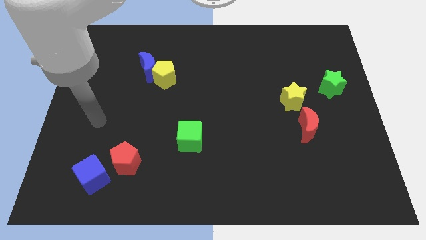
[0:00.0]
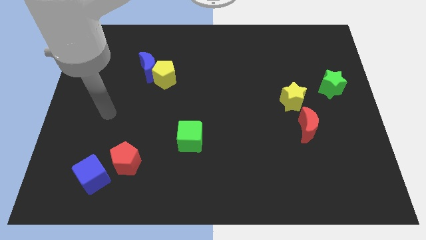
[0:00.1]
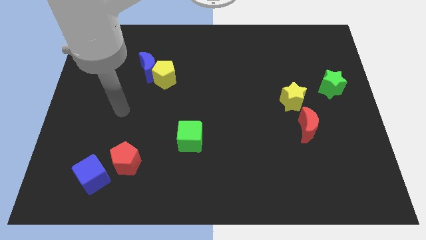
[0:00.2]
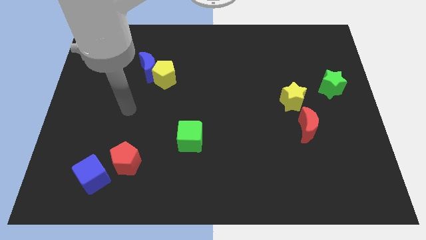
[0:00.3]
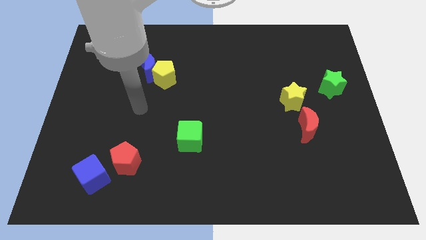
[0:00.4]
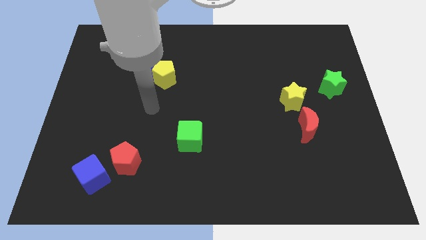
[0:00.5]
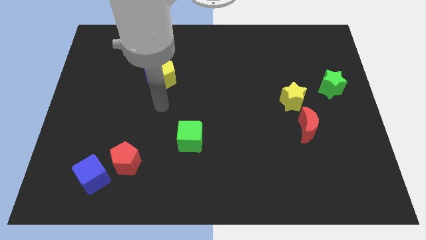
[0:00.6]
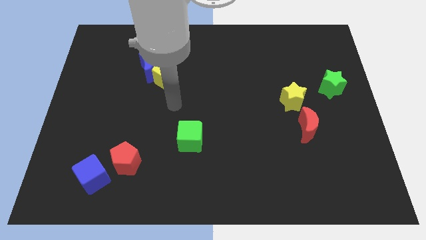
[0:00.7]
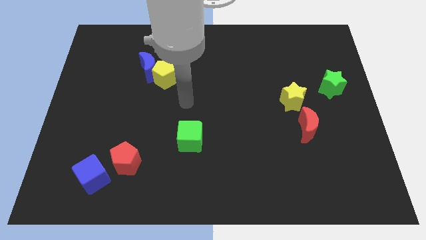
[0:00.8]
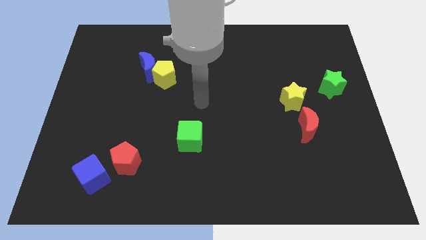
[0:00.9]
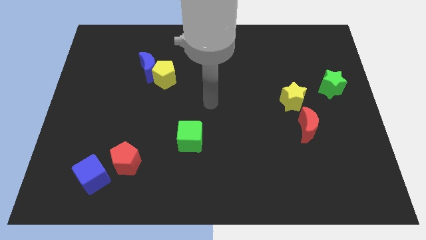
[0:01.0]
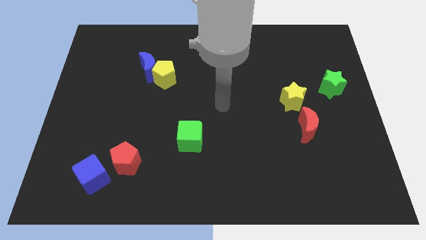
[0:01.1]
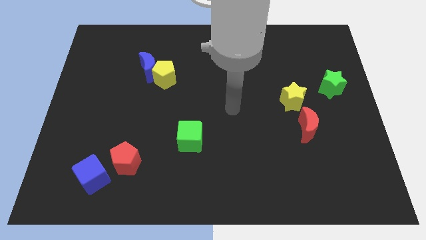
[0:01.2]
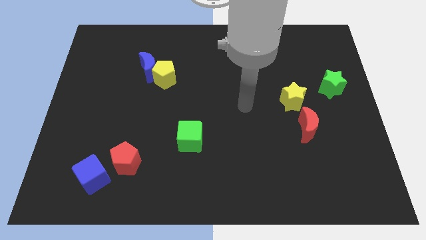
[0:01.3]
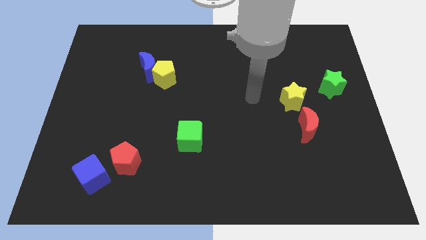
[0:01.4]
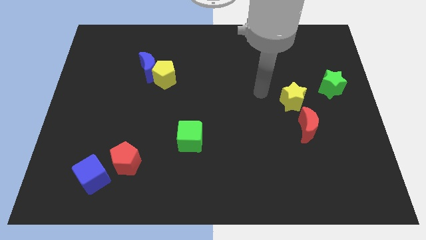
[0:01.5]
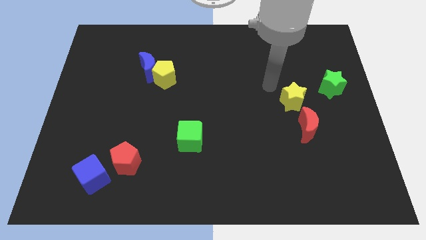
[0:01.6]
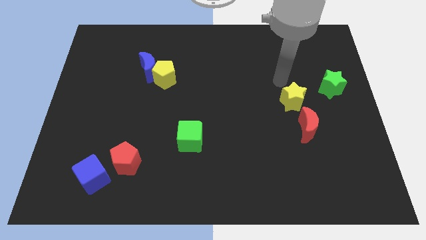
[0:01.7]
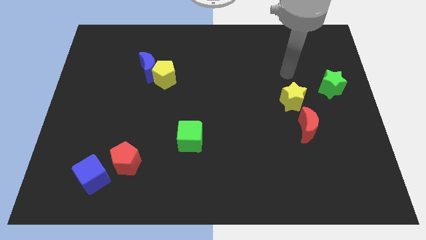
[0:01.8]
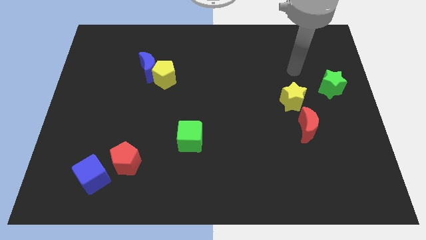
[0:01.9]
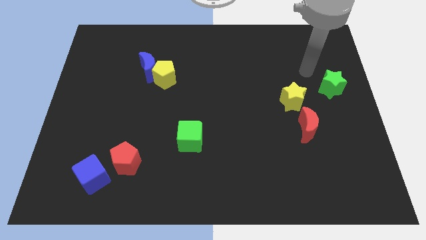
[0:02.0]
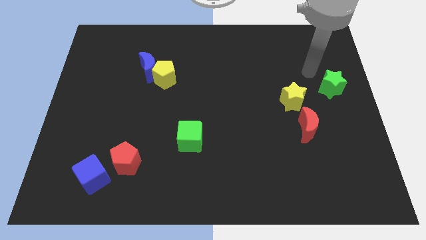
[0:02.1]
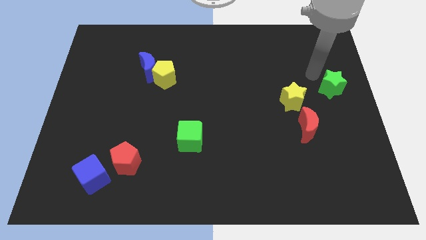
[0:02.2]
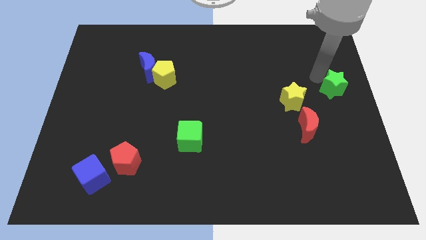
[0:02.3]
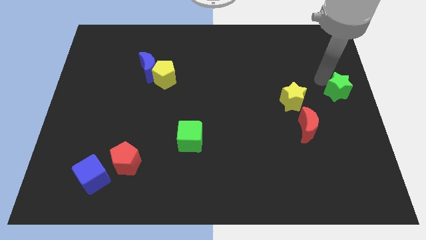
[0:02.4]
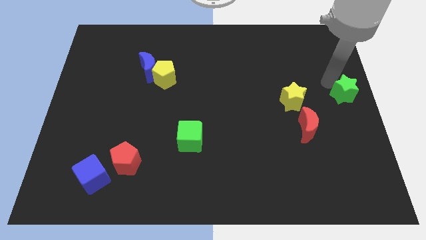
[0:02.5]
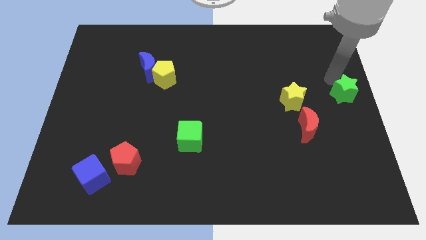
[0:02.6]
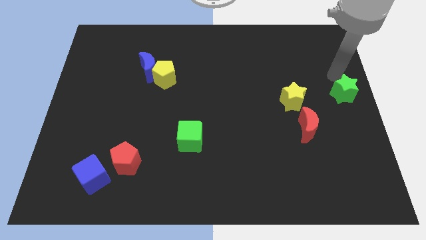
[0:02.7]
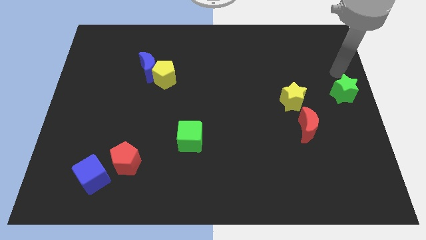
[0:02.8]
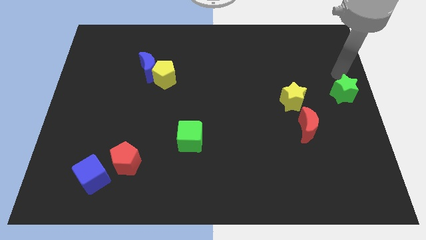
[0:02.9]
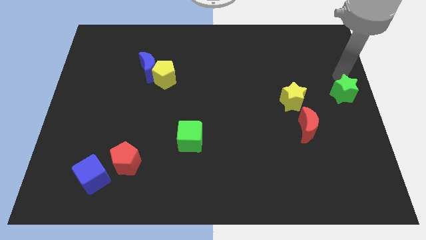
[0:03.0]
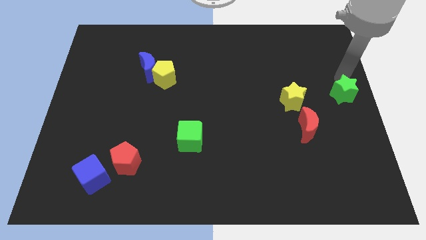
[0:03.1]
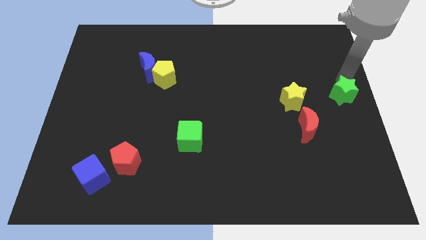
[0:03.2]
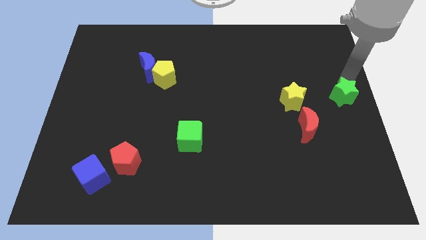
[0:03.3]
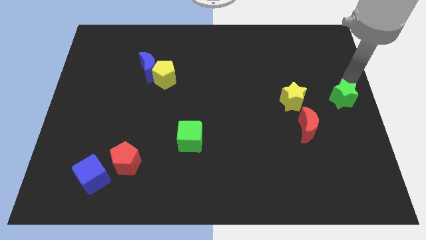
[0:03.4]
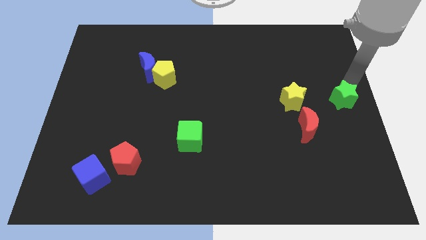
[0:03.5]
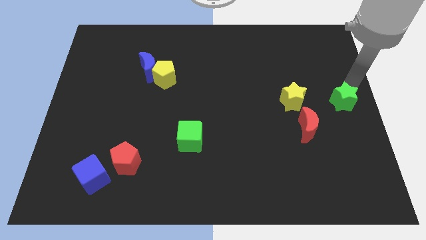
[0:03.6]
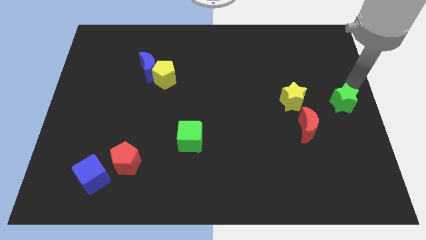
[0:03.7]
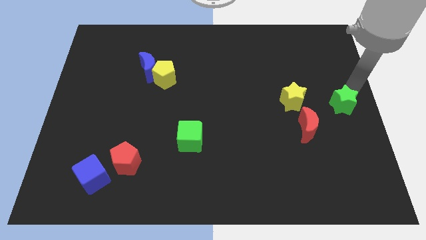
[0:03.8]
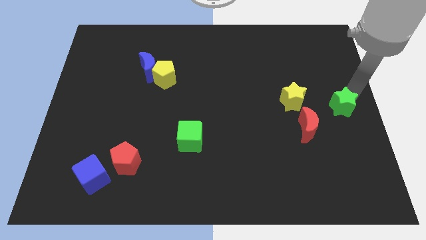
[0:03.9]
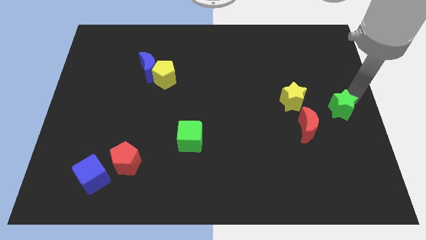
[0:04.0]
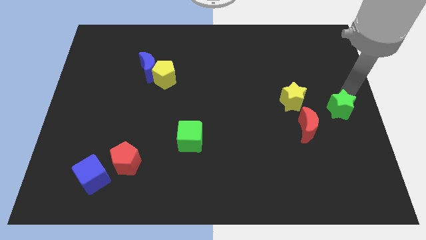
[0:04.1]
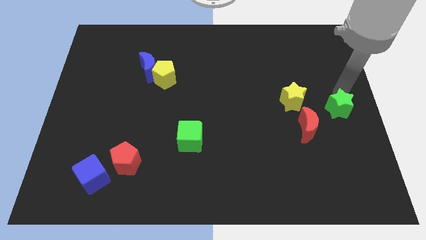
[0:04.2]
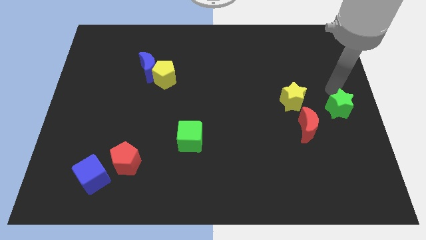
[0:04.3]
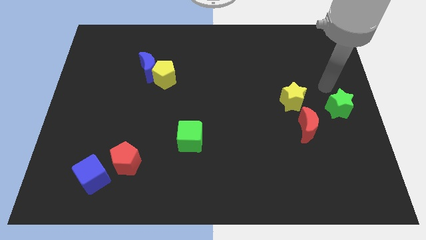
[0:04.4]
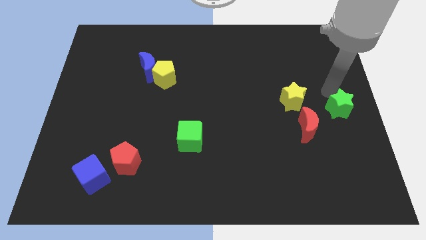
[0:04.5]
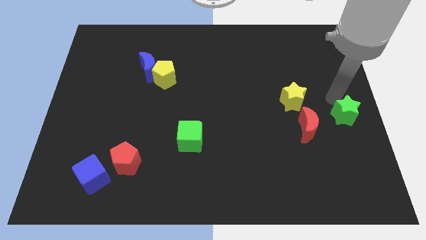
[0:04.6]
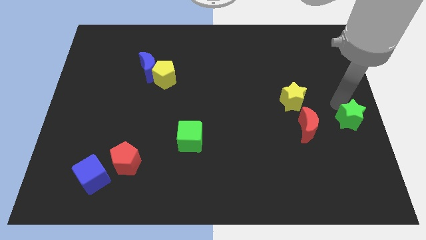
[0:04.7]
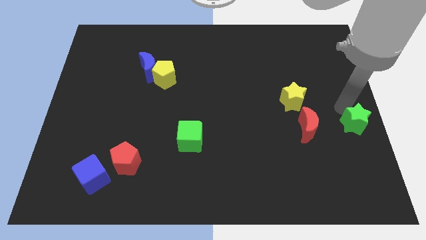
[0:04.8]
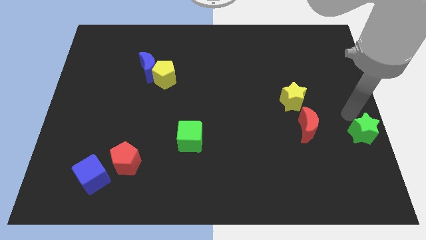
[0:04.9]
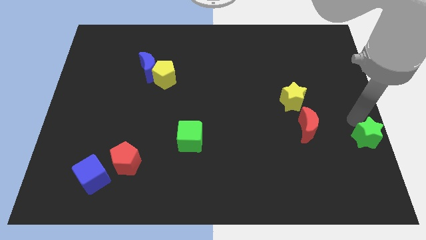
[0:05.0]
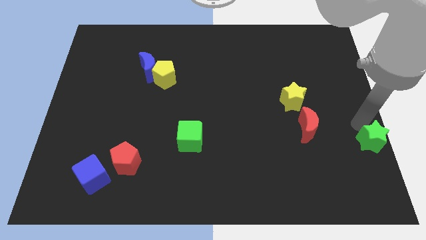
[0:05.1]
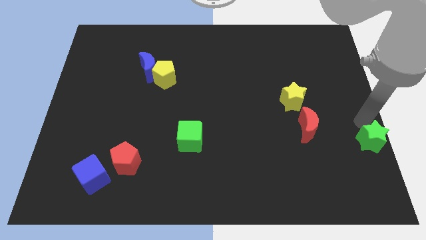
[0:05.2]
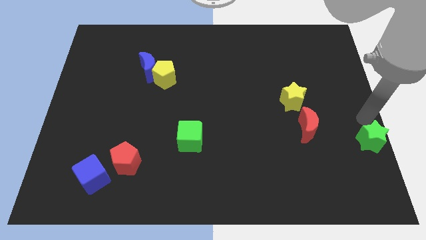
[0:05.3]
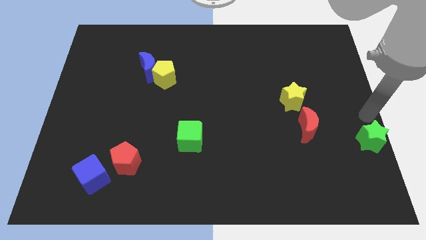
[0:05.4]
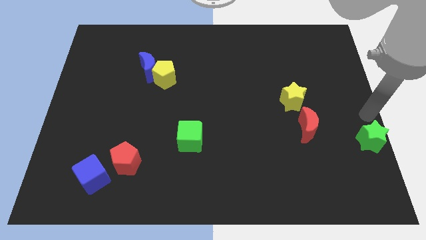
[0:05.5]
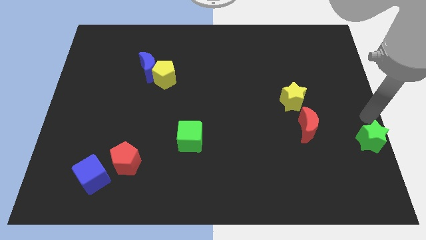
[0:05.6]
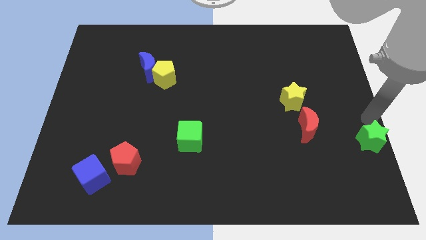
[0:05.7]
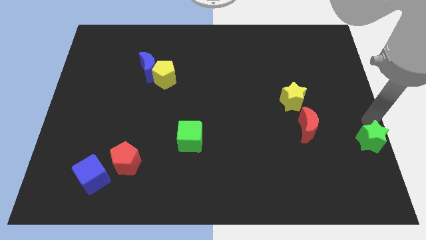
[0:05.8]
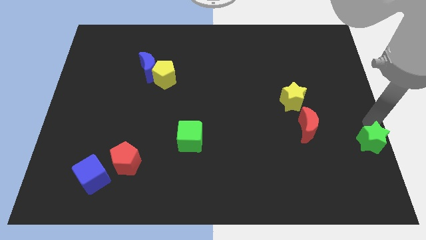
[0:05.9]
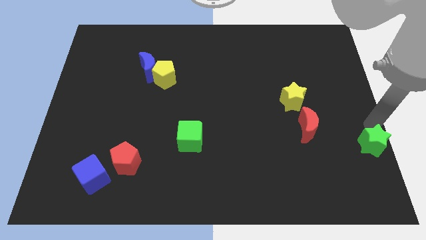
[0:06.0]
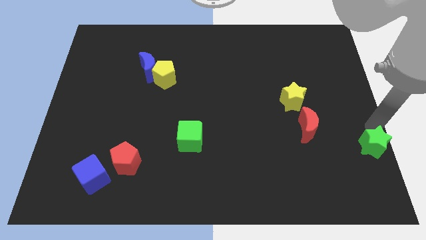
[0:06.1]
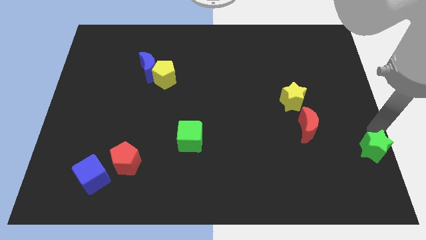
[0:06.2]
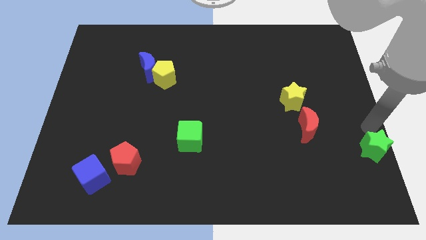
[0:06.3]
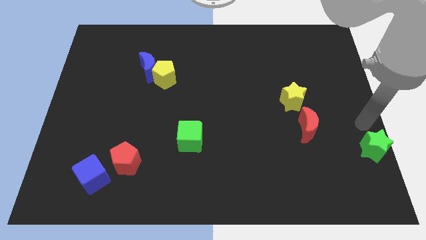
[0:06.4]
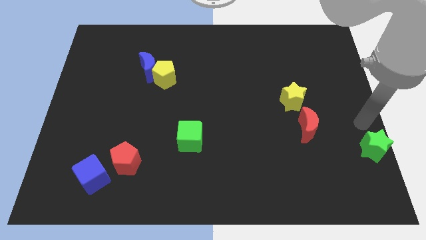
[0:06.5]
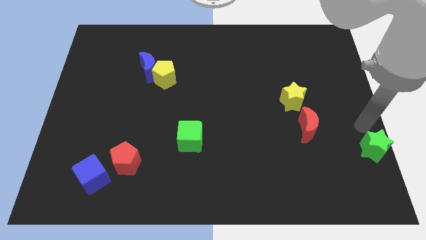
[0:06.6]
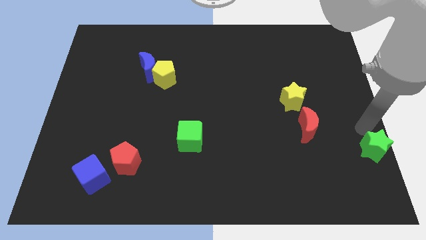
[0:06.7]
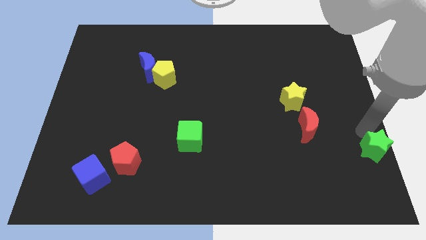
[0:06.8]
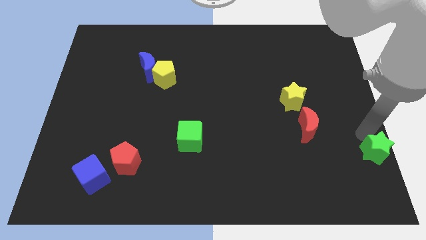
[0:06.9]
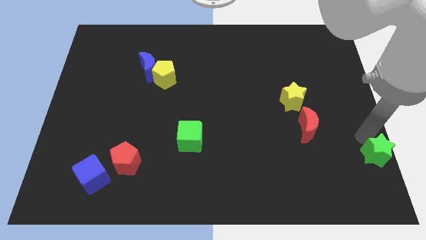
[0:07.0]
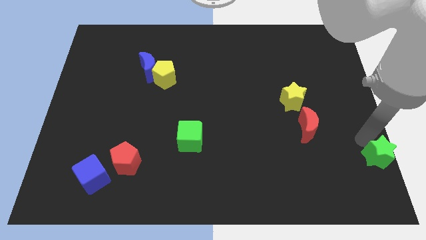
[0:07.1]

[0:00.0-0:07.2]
slide the green star to the lower right corner
